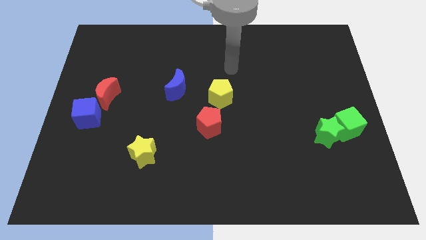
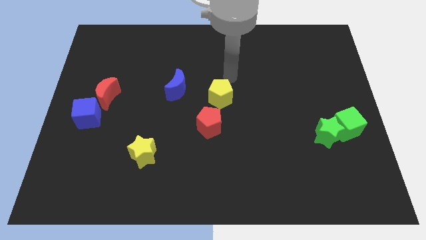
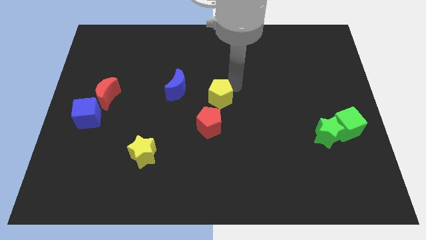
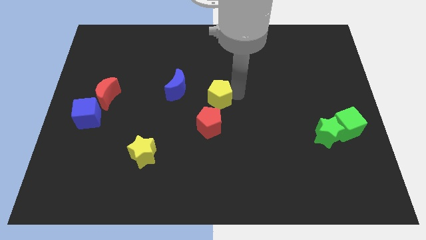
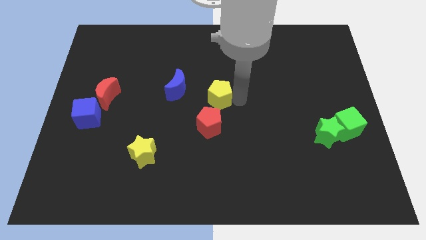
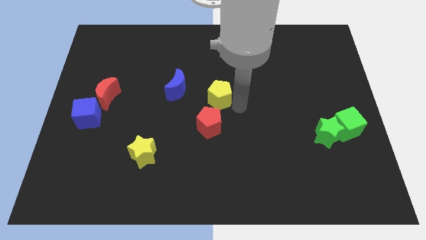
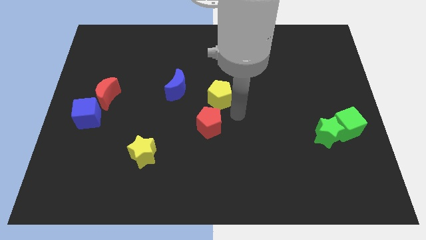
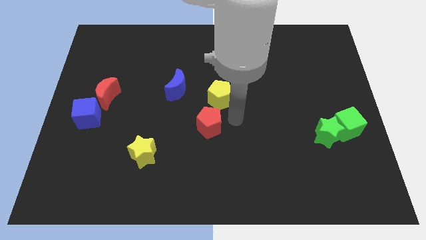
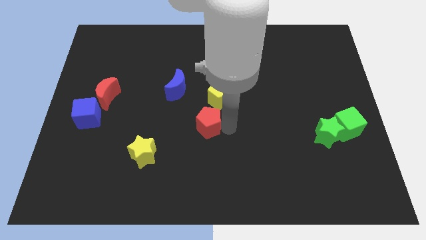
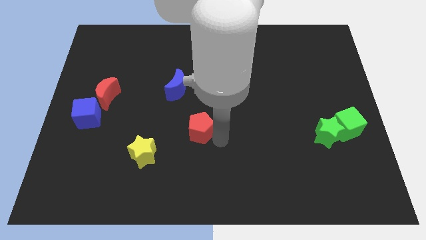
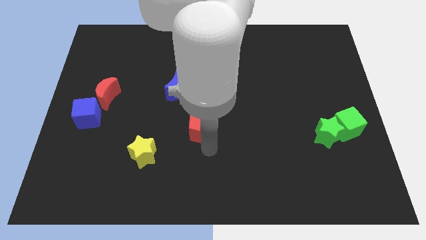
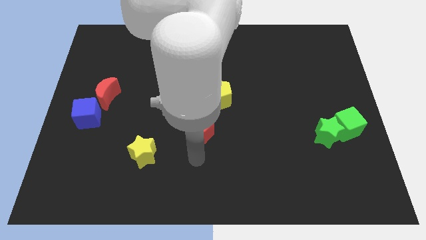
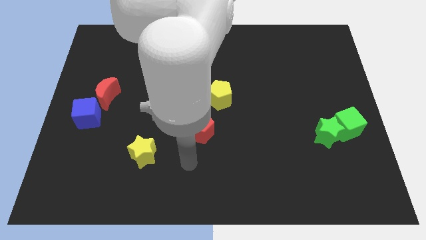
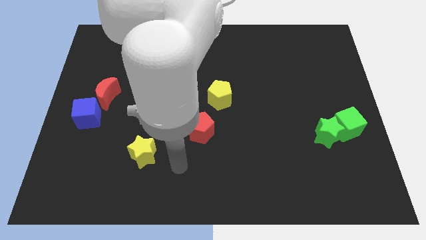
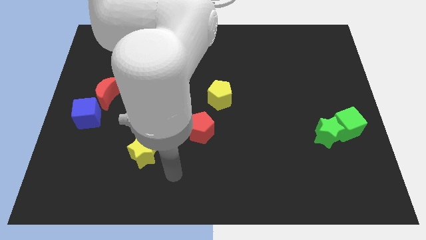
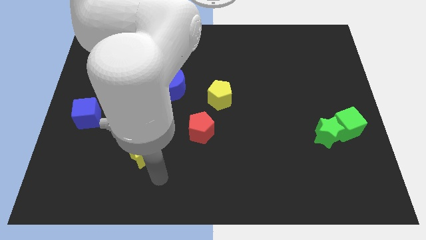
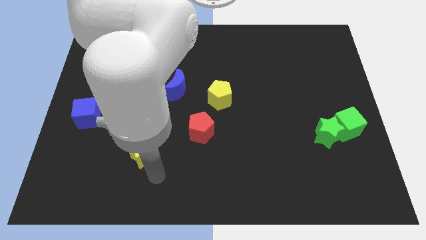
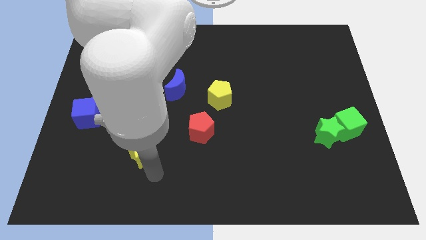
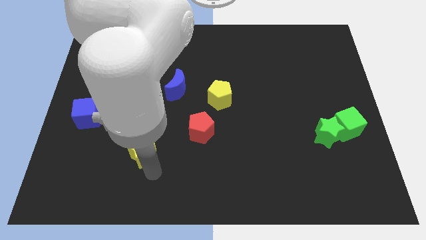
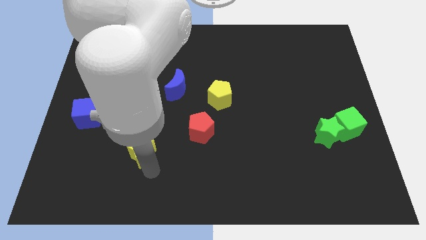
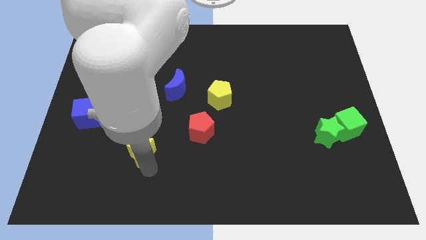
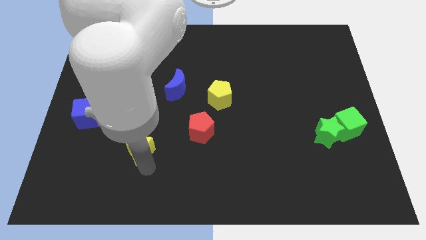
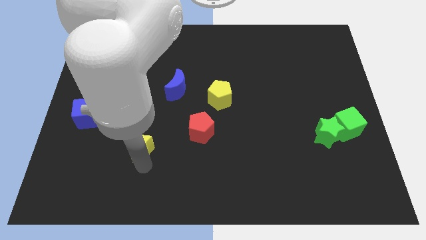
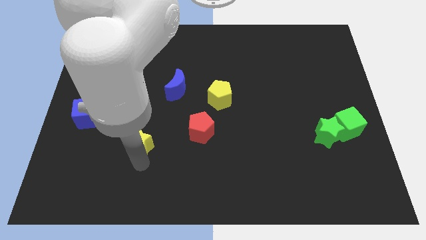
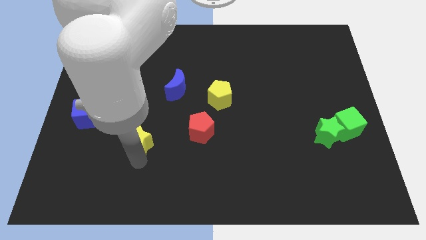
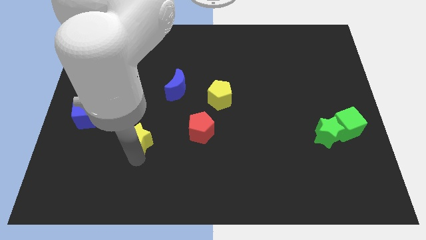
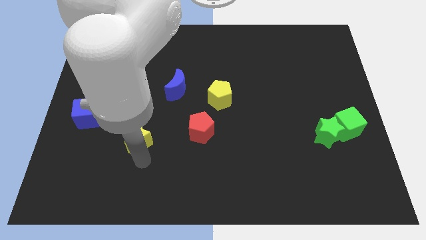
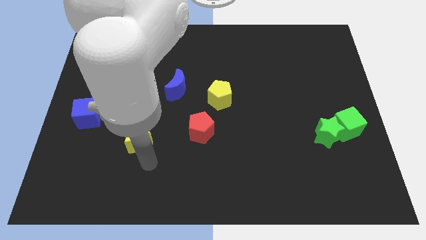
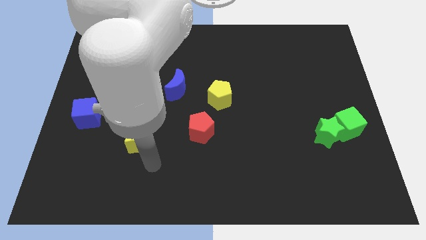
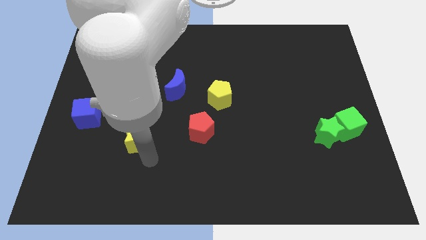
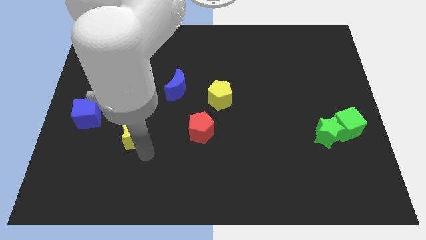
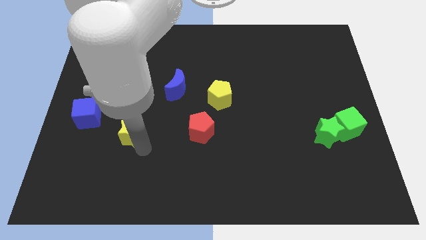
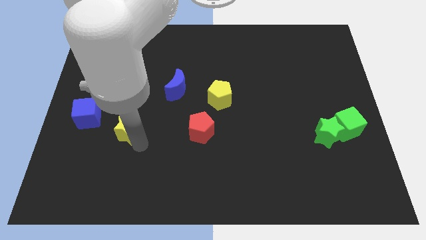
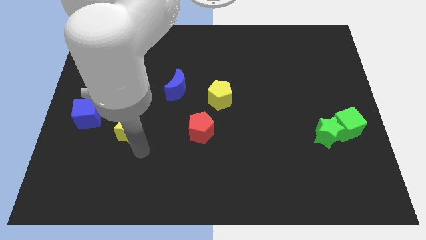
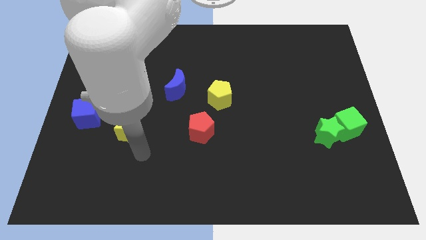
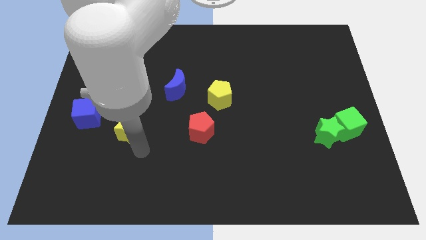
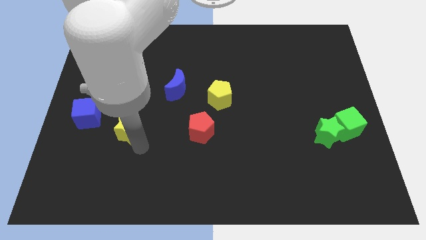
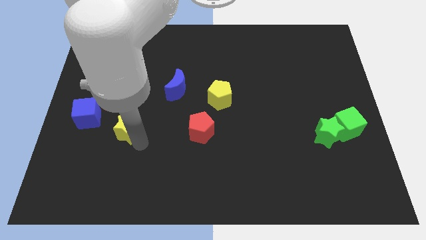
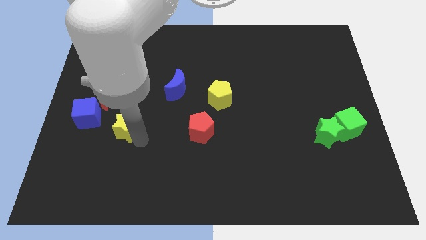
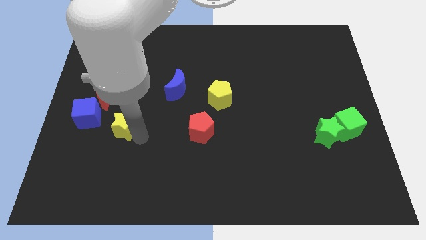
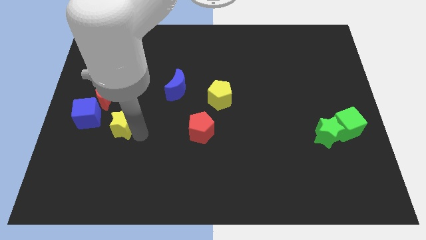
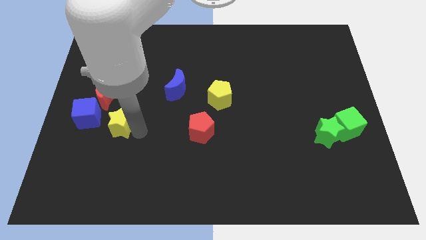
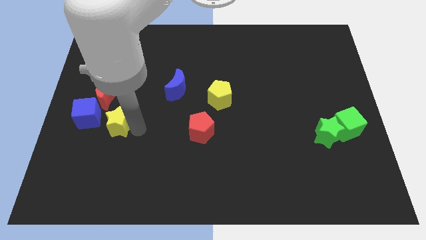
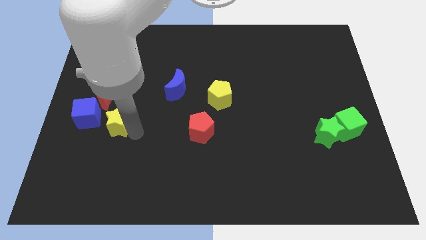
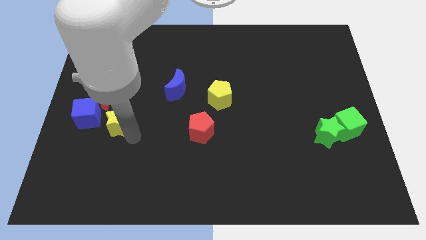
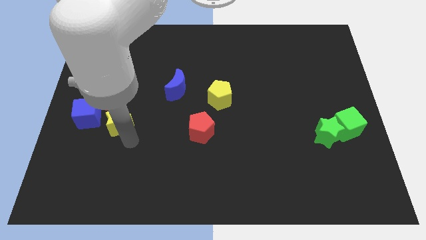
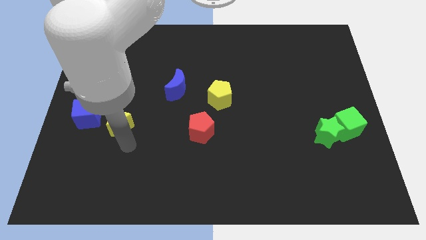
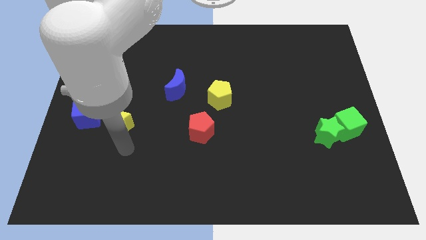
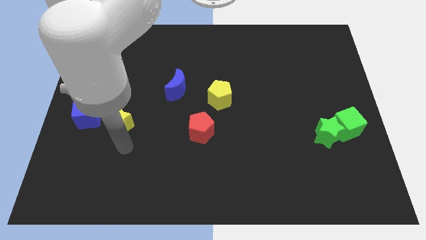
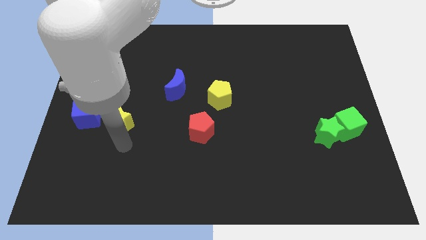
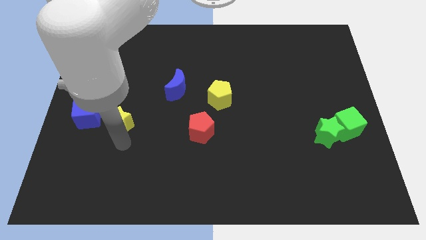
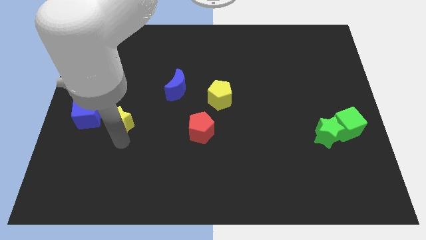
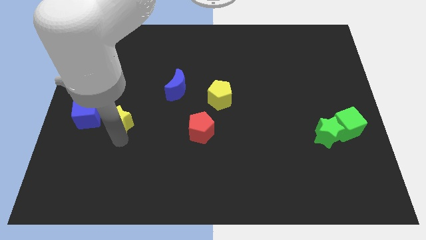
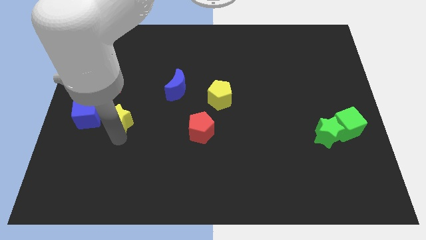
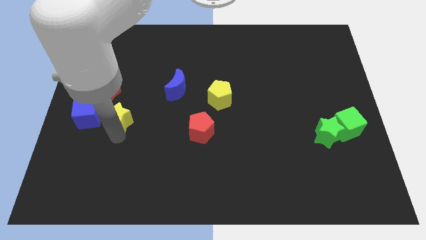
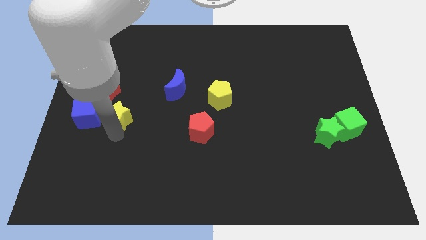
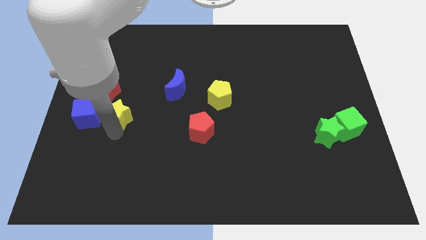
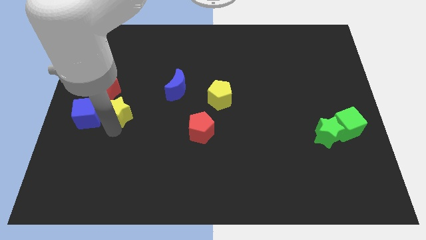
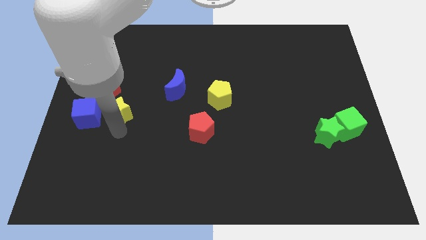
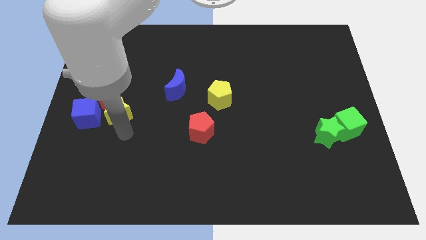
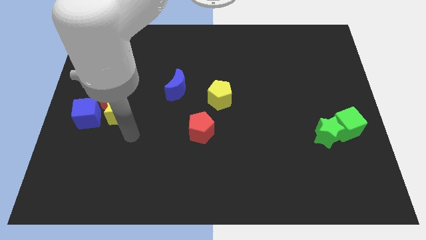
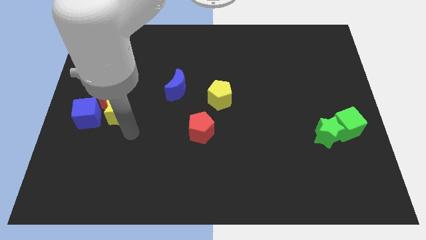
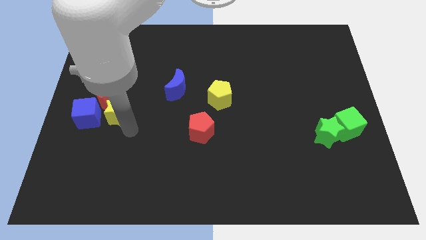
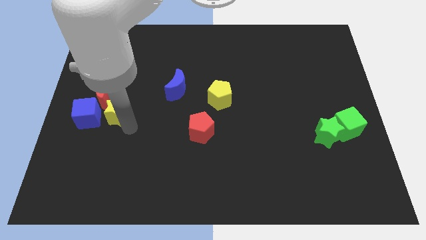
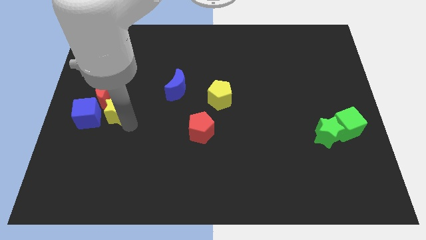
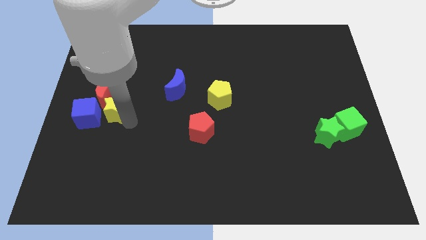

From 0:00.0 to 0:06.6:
push the yellow star next to the red moon
